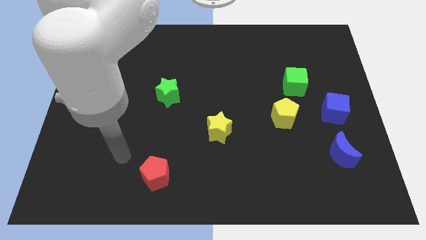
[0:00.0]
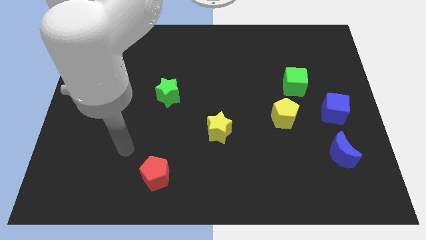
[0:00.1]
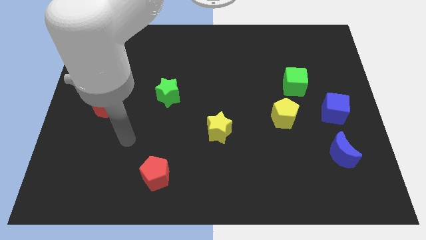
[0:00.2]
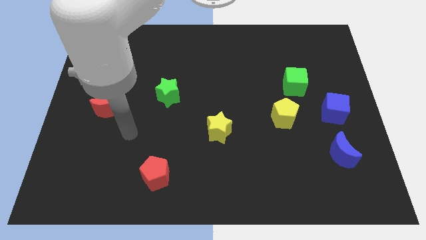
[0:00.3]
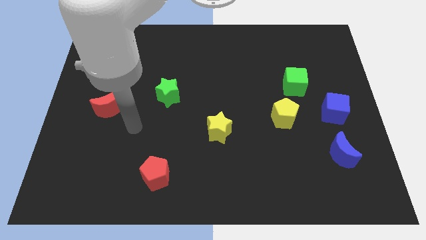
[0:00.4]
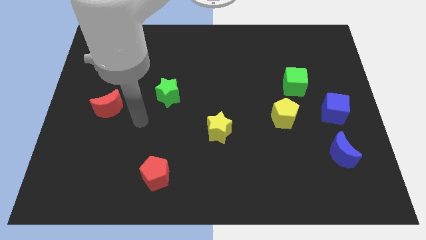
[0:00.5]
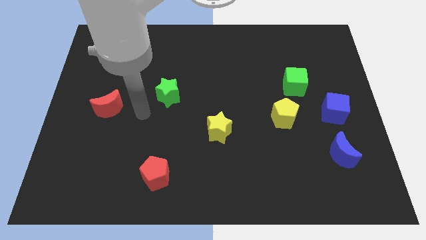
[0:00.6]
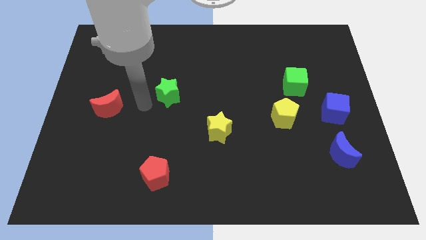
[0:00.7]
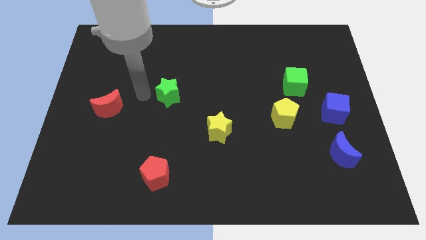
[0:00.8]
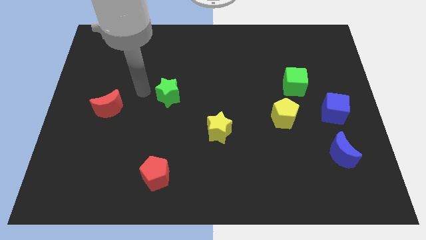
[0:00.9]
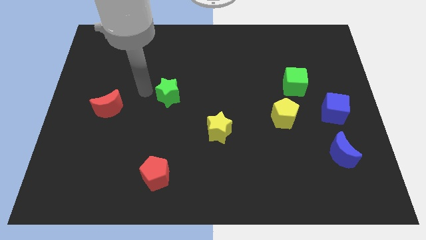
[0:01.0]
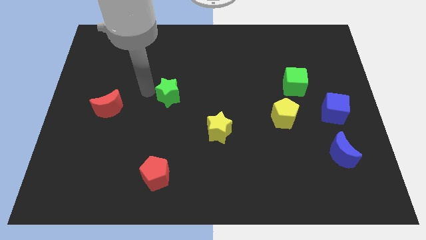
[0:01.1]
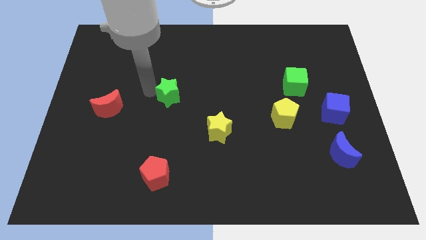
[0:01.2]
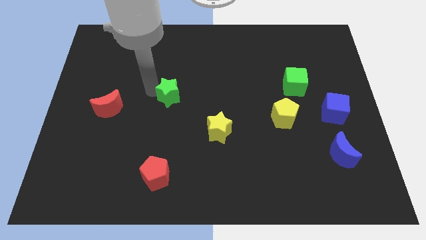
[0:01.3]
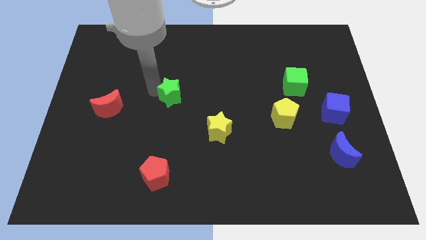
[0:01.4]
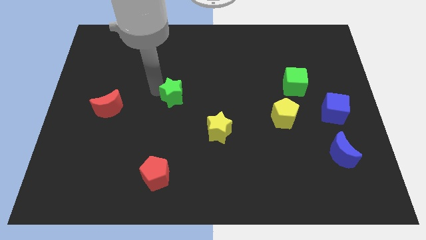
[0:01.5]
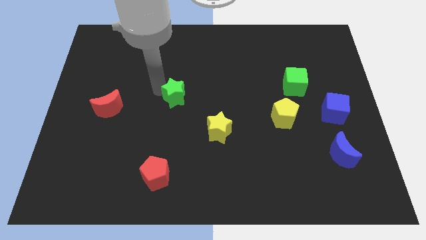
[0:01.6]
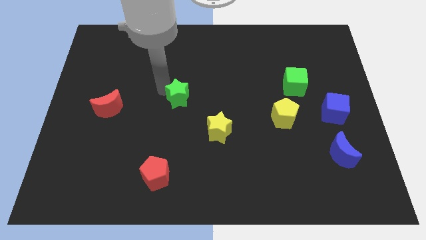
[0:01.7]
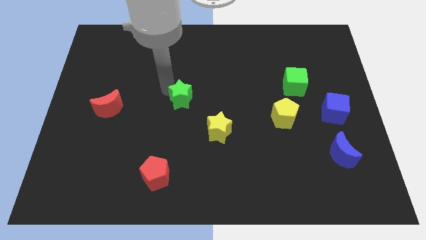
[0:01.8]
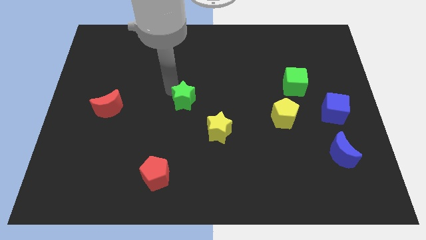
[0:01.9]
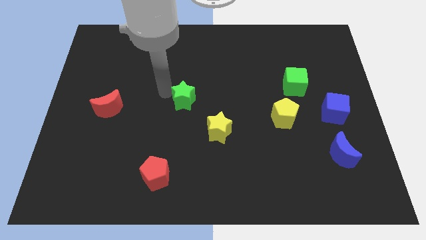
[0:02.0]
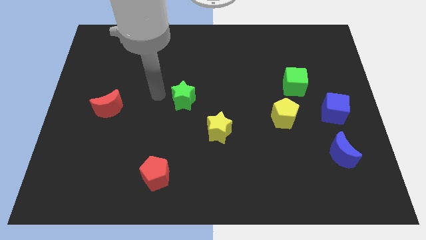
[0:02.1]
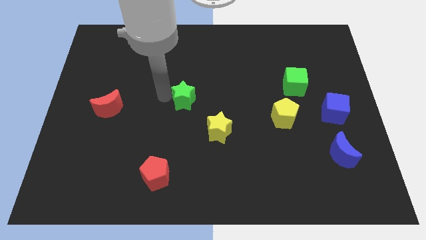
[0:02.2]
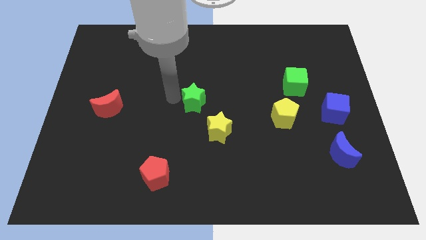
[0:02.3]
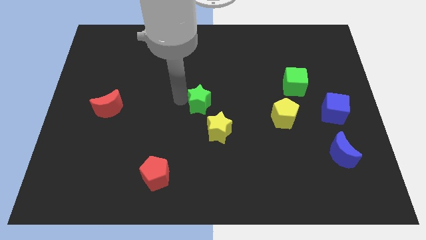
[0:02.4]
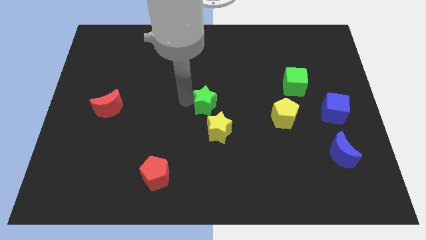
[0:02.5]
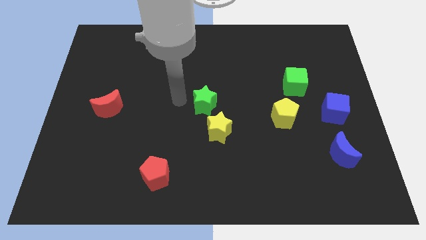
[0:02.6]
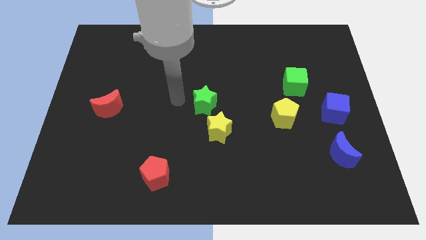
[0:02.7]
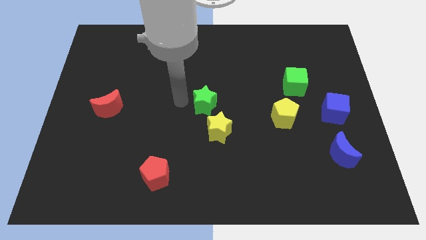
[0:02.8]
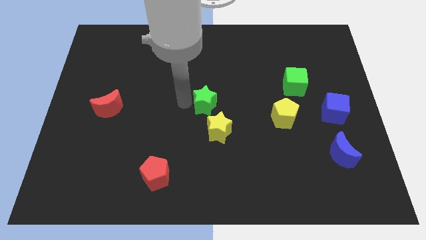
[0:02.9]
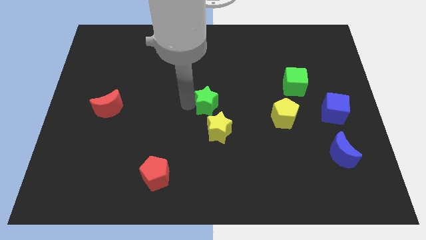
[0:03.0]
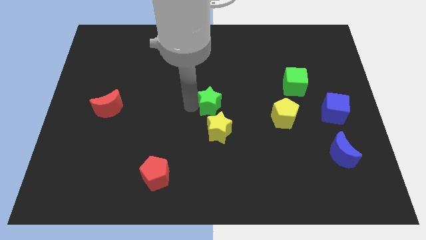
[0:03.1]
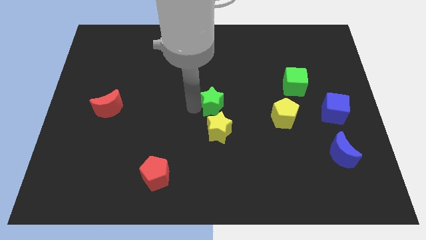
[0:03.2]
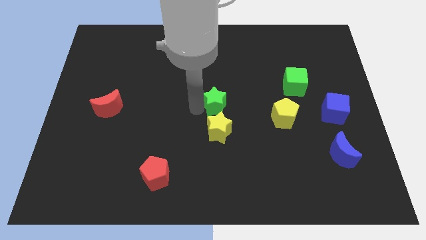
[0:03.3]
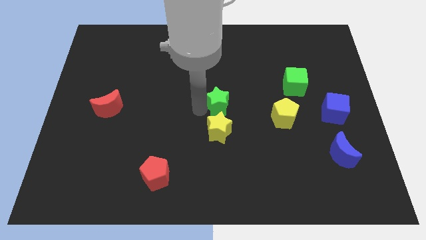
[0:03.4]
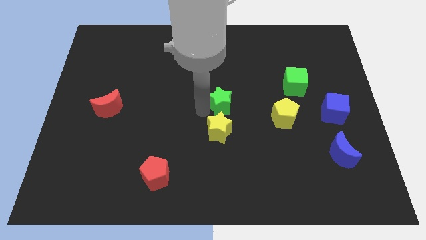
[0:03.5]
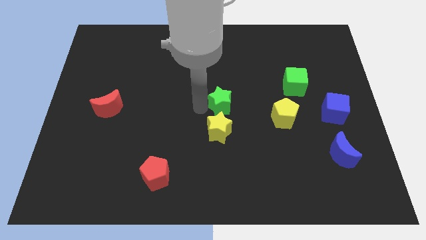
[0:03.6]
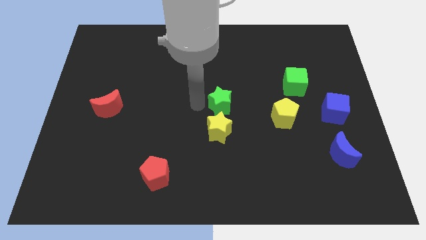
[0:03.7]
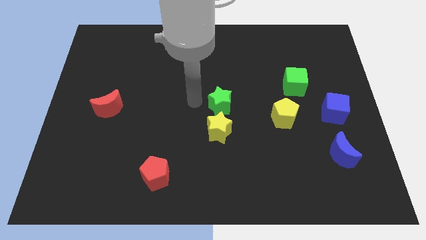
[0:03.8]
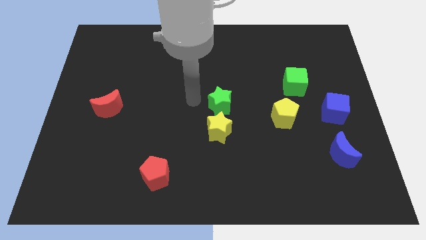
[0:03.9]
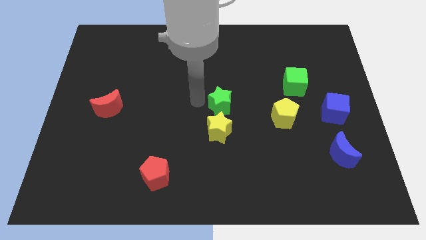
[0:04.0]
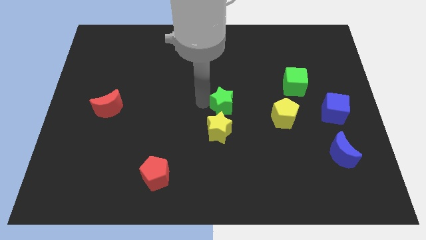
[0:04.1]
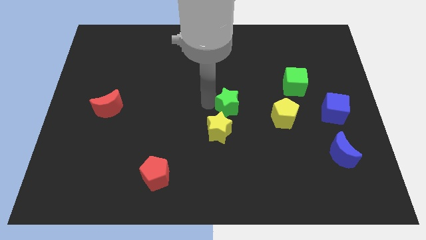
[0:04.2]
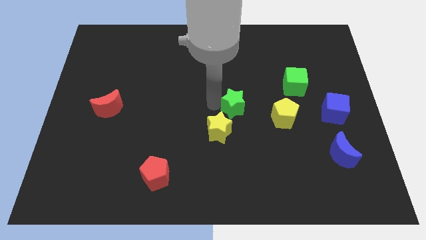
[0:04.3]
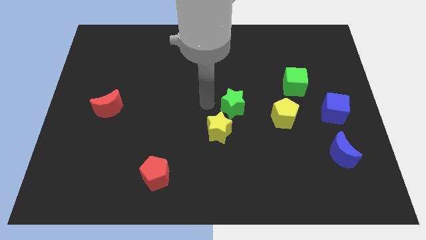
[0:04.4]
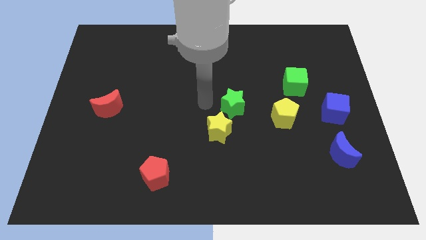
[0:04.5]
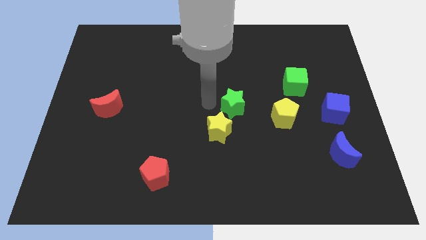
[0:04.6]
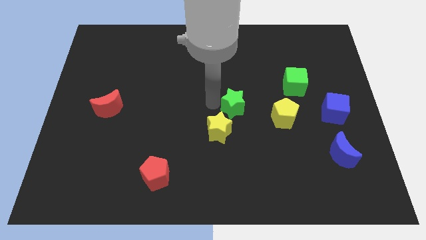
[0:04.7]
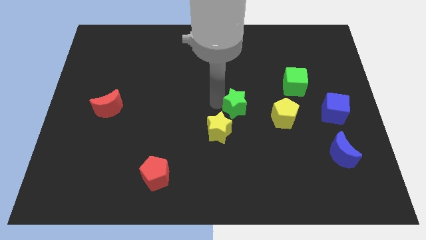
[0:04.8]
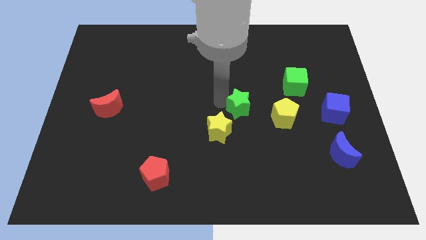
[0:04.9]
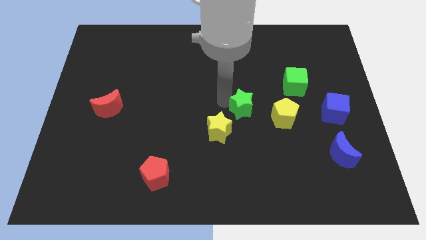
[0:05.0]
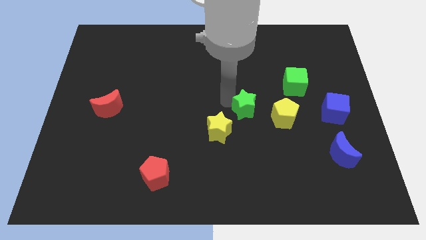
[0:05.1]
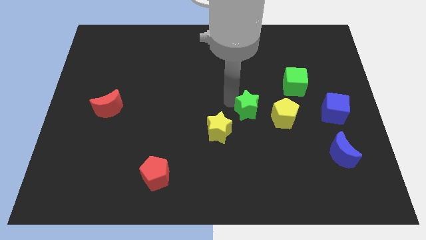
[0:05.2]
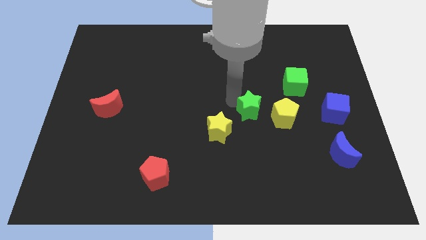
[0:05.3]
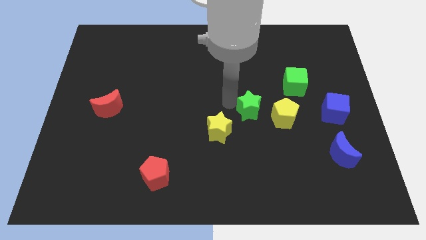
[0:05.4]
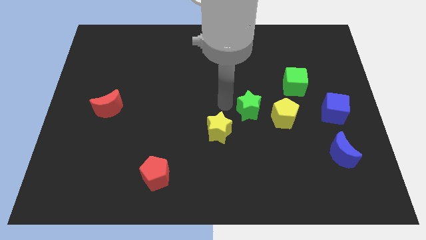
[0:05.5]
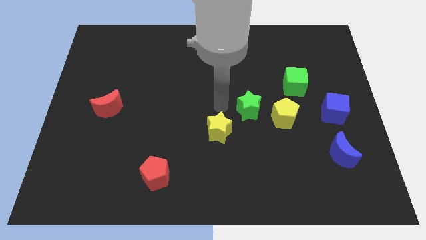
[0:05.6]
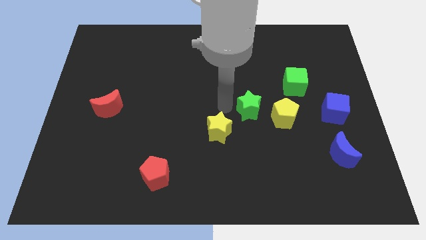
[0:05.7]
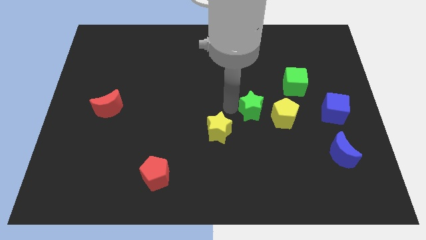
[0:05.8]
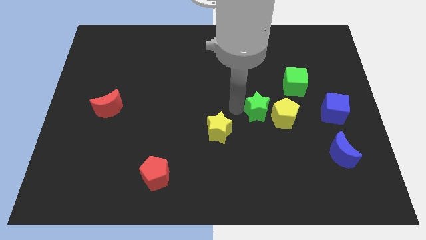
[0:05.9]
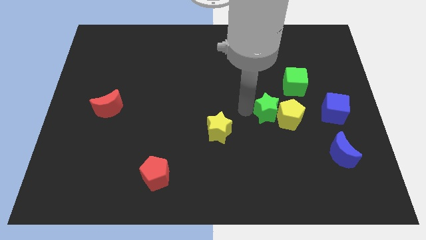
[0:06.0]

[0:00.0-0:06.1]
slide the green star to the left of the blue cube

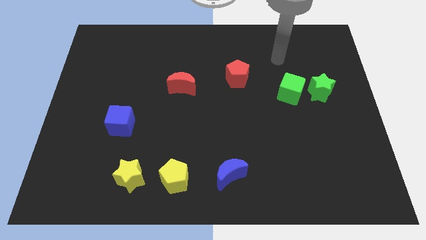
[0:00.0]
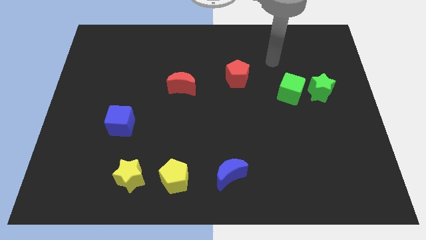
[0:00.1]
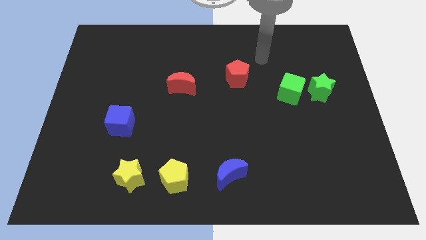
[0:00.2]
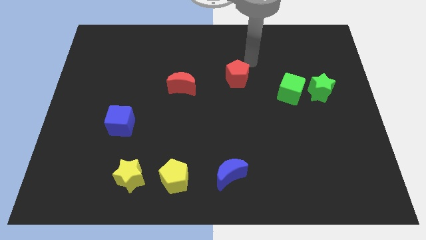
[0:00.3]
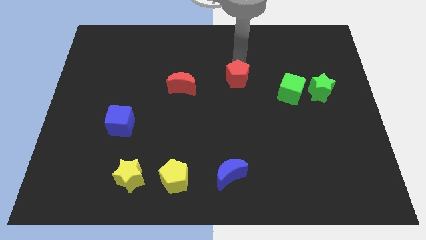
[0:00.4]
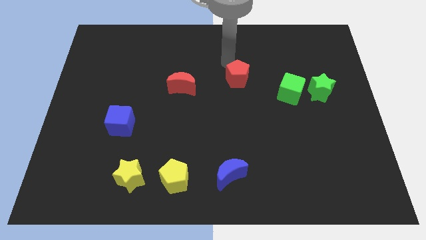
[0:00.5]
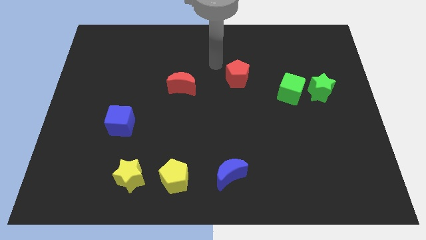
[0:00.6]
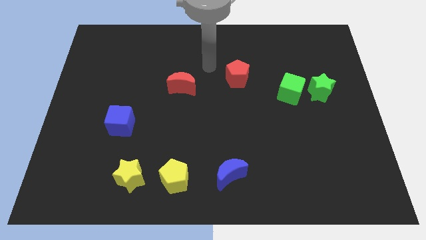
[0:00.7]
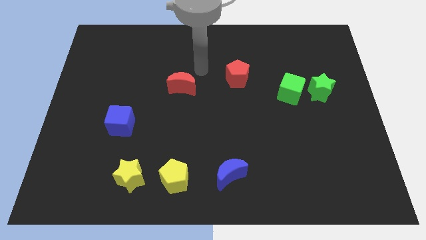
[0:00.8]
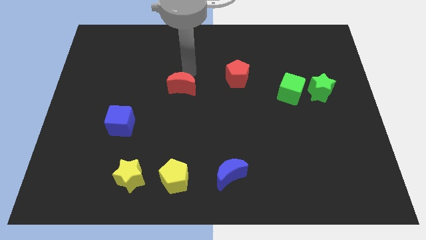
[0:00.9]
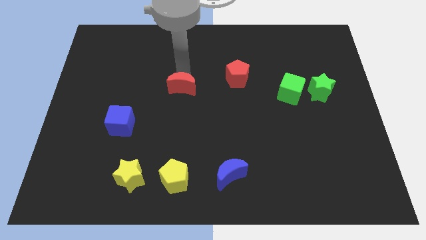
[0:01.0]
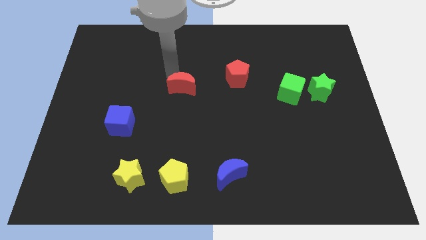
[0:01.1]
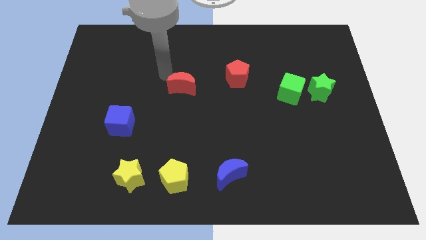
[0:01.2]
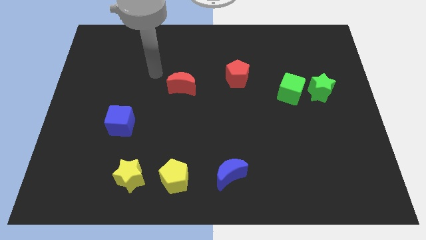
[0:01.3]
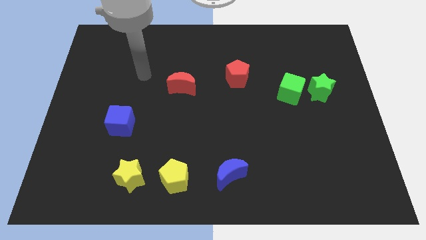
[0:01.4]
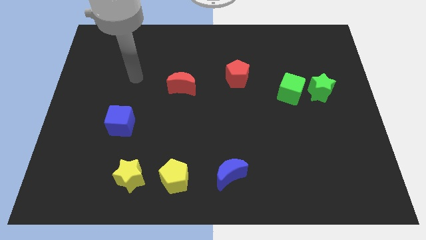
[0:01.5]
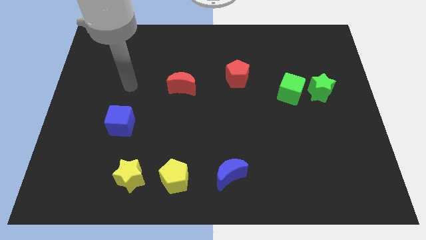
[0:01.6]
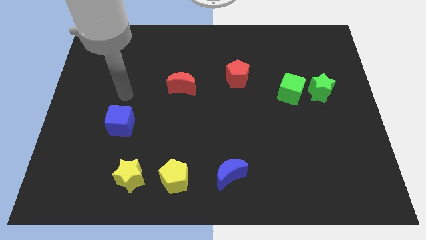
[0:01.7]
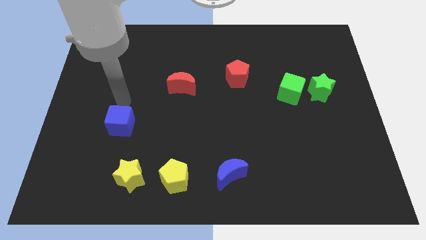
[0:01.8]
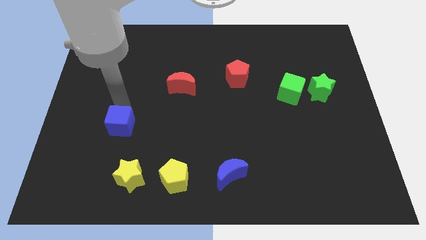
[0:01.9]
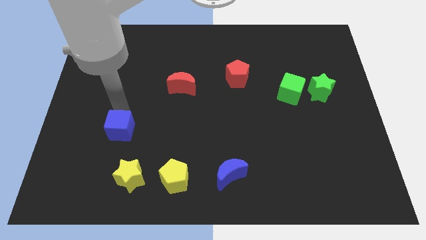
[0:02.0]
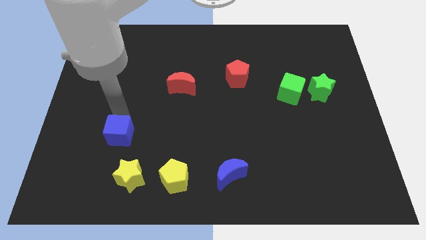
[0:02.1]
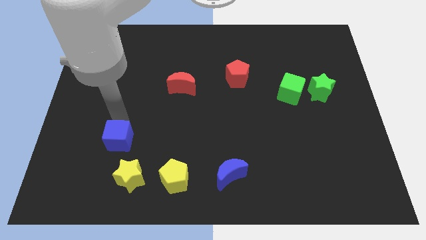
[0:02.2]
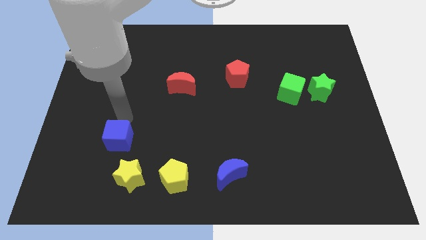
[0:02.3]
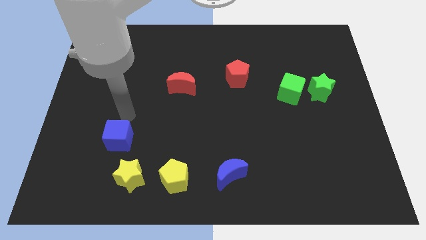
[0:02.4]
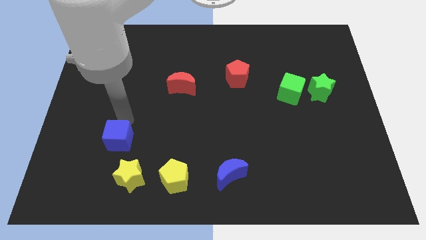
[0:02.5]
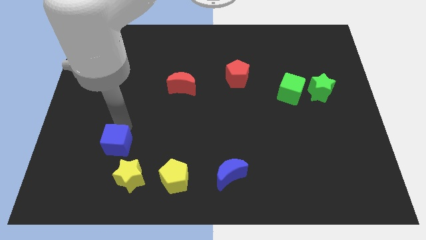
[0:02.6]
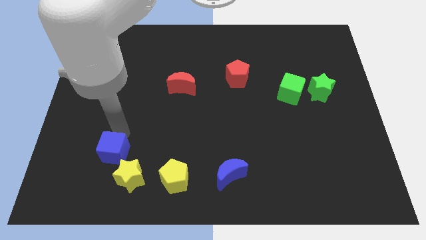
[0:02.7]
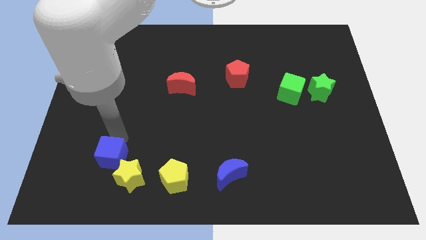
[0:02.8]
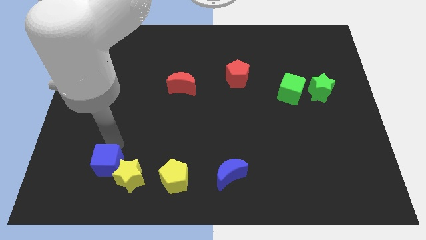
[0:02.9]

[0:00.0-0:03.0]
slide the blue cube to the left side of the yellow pentagon
